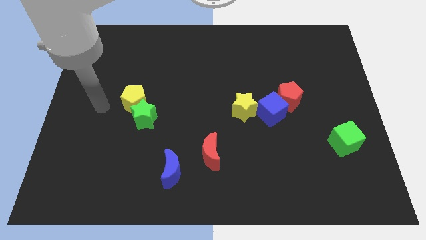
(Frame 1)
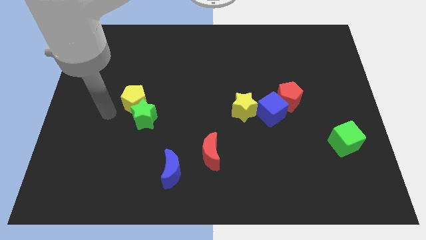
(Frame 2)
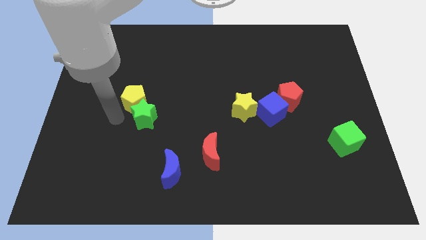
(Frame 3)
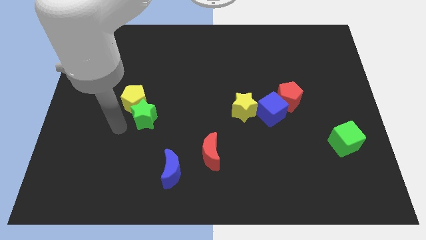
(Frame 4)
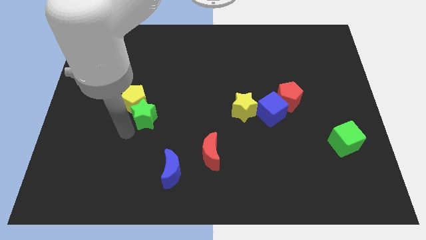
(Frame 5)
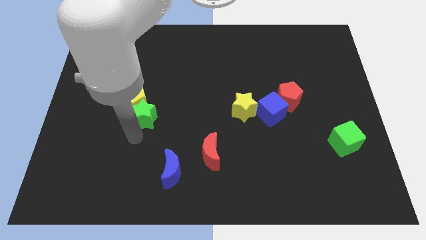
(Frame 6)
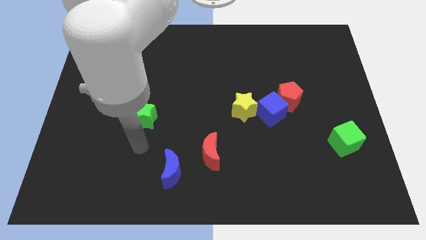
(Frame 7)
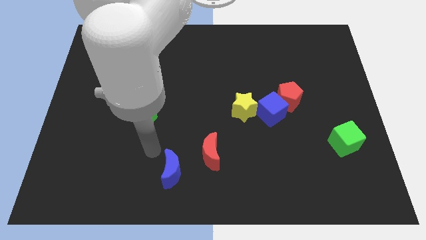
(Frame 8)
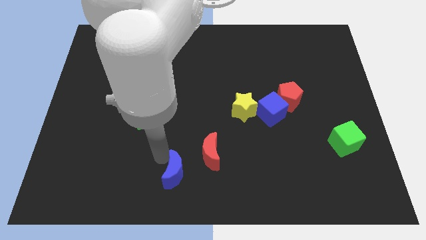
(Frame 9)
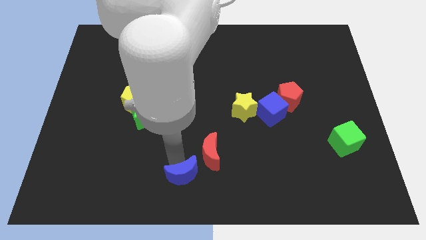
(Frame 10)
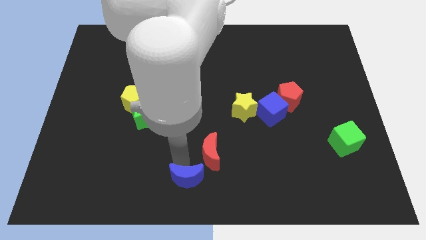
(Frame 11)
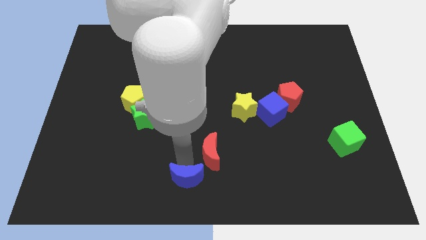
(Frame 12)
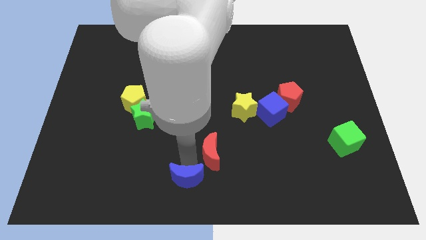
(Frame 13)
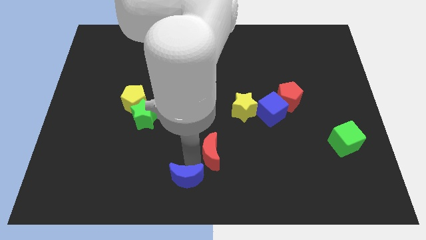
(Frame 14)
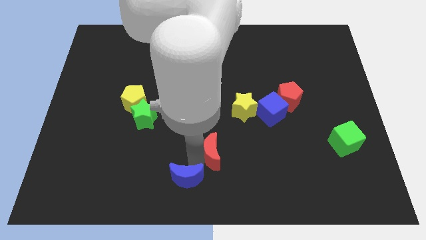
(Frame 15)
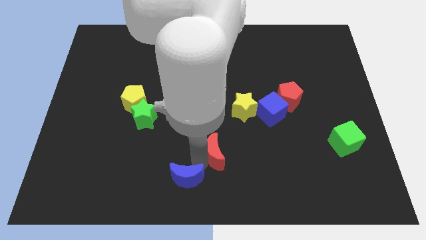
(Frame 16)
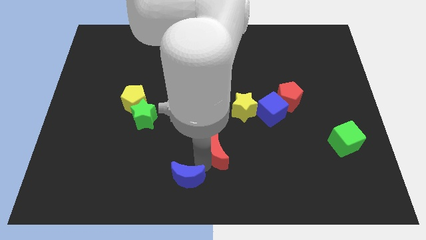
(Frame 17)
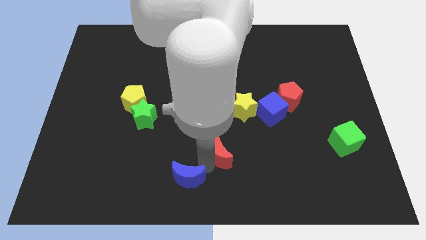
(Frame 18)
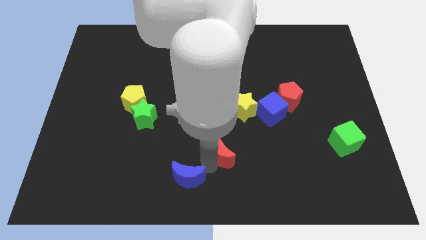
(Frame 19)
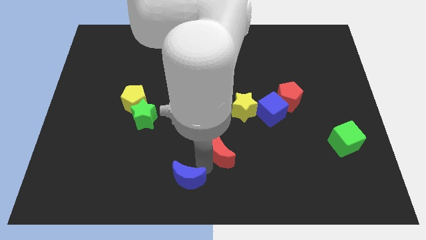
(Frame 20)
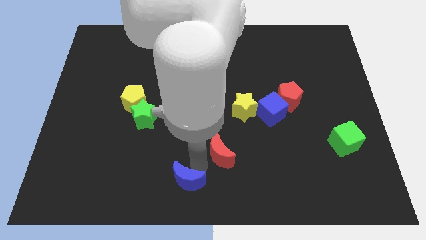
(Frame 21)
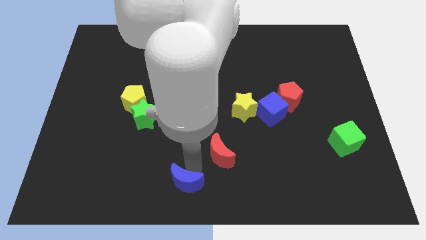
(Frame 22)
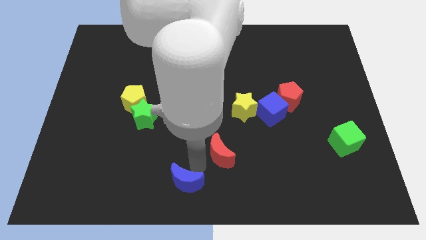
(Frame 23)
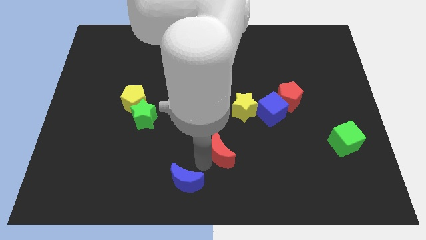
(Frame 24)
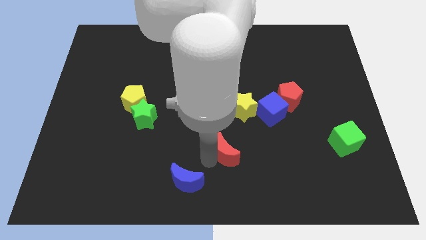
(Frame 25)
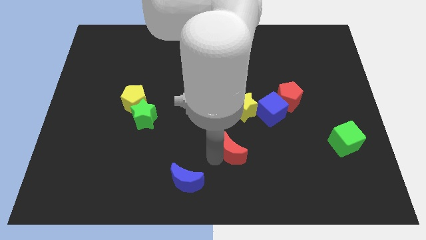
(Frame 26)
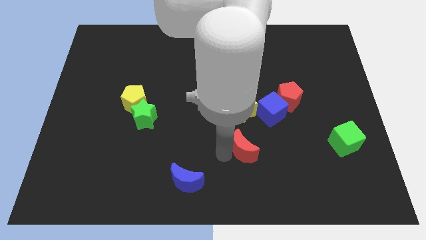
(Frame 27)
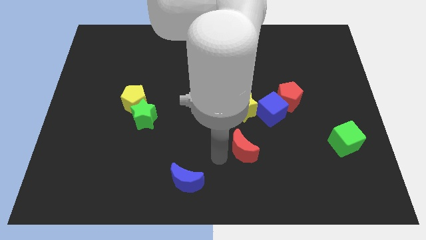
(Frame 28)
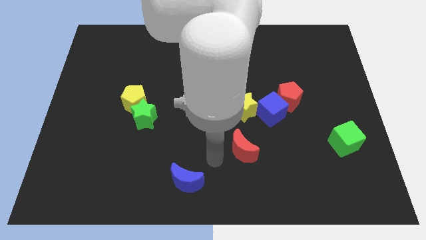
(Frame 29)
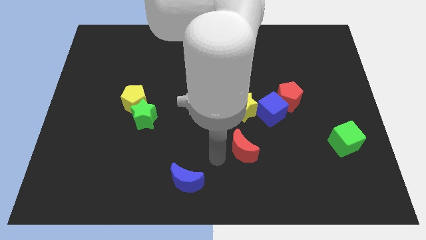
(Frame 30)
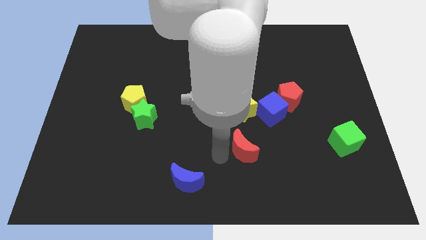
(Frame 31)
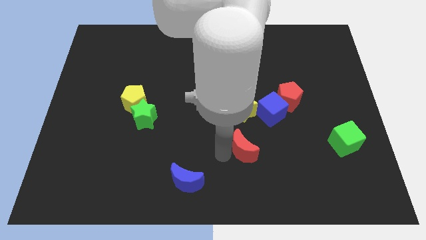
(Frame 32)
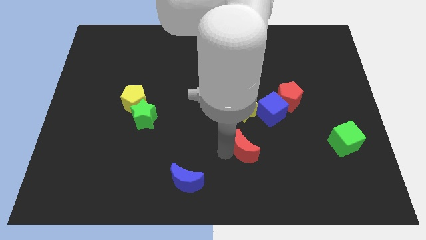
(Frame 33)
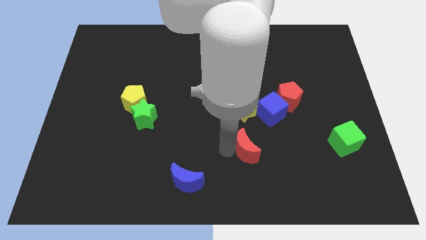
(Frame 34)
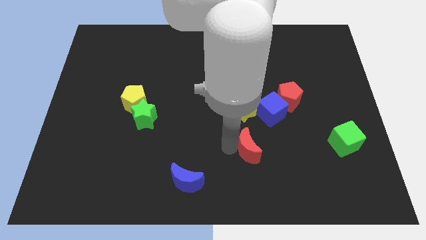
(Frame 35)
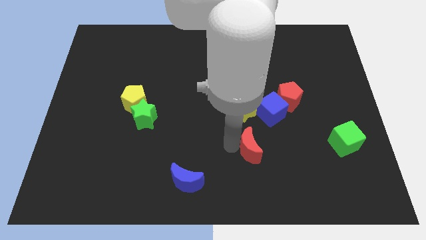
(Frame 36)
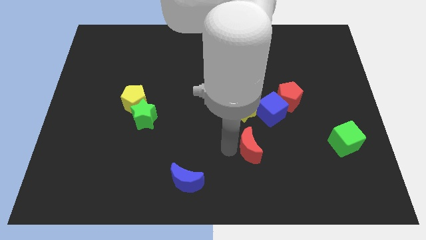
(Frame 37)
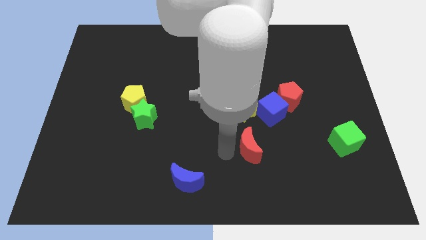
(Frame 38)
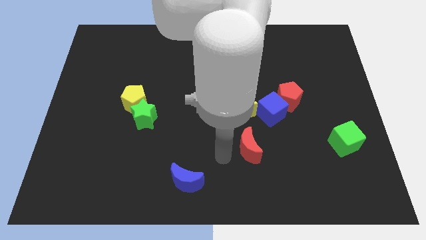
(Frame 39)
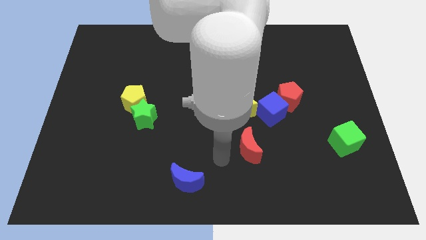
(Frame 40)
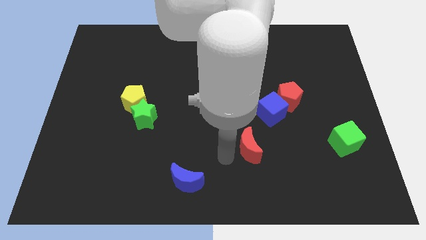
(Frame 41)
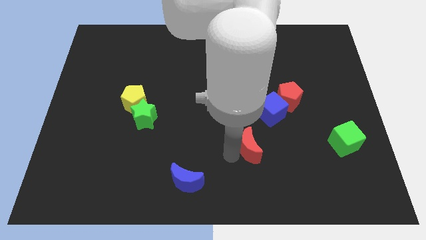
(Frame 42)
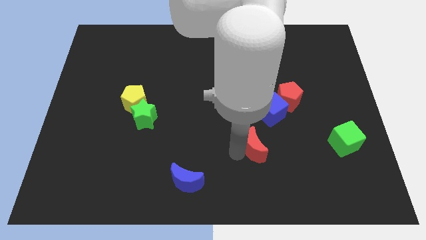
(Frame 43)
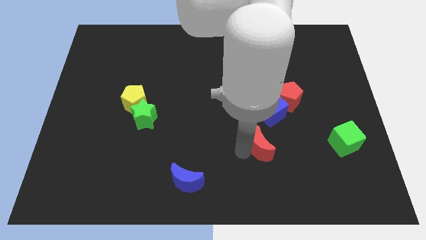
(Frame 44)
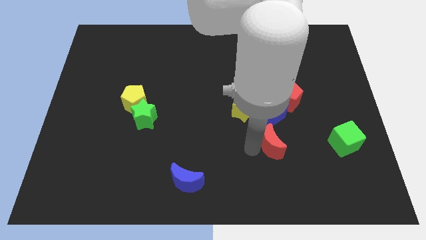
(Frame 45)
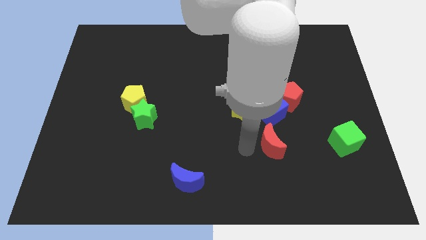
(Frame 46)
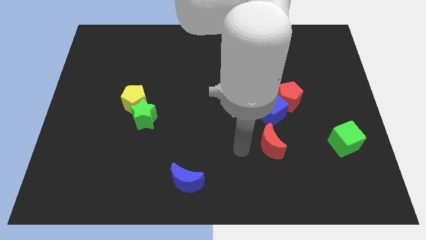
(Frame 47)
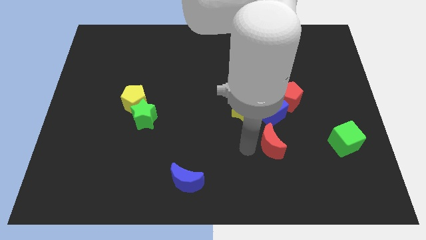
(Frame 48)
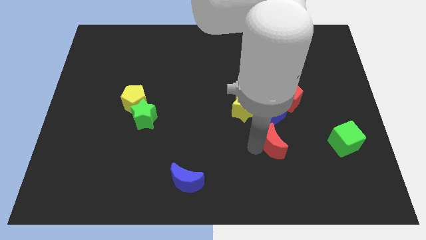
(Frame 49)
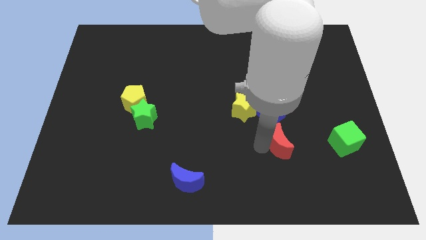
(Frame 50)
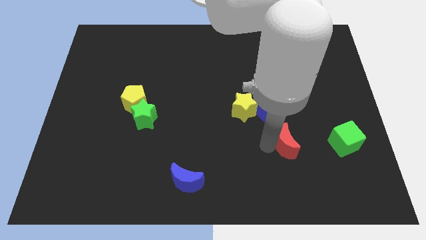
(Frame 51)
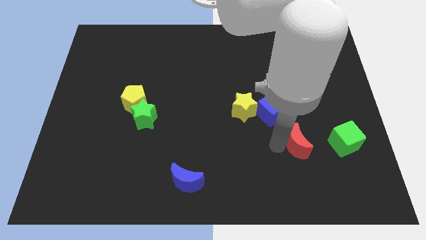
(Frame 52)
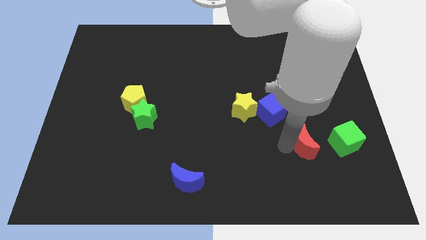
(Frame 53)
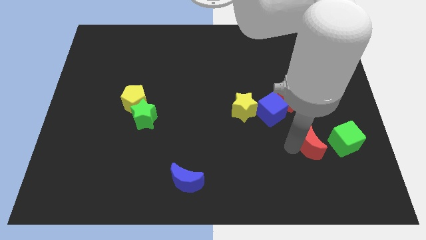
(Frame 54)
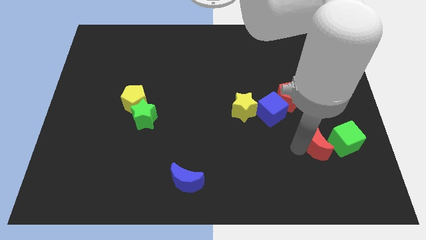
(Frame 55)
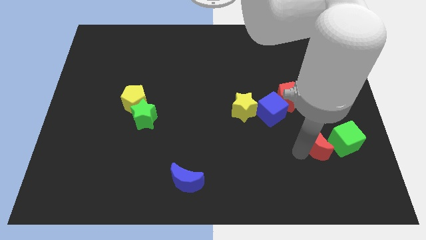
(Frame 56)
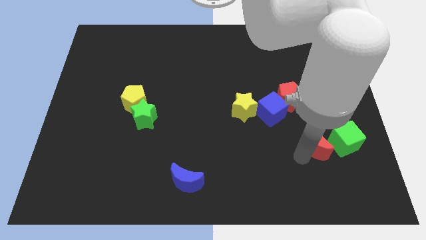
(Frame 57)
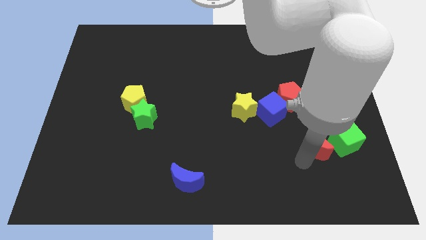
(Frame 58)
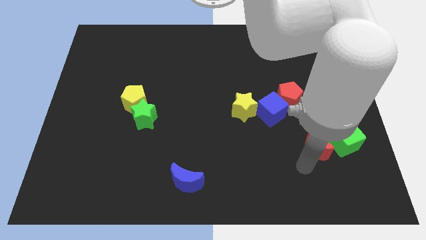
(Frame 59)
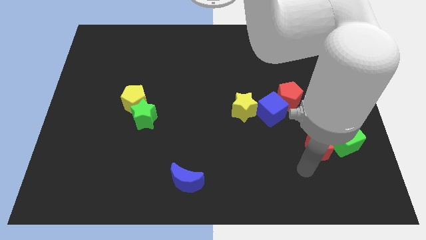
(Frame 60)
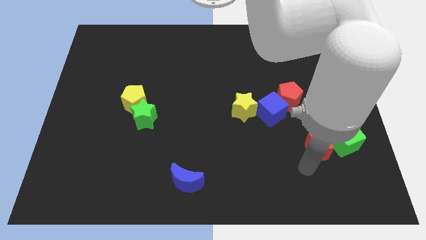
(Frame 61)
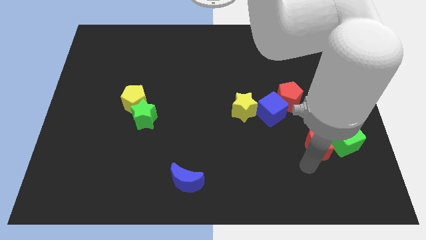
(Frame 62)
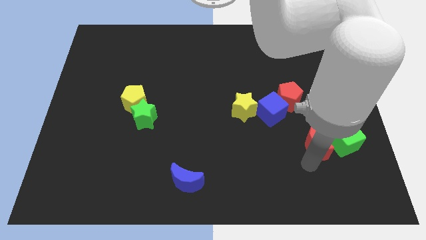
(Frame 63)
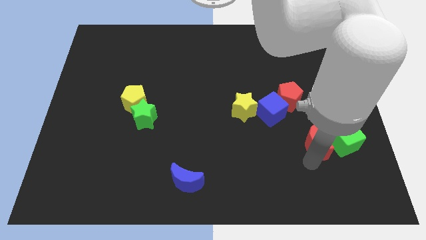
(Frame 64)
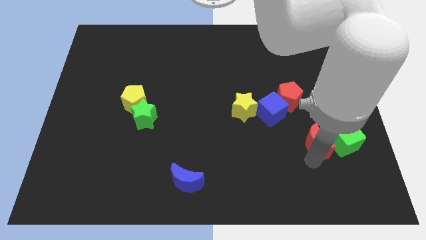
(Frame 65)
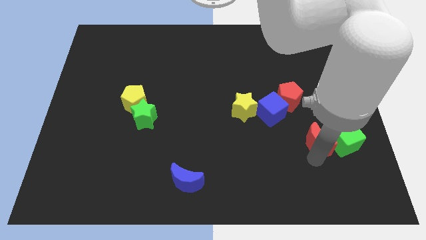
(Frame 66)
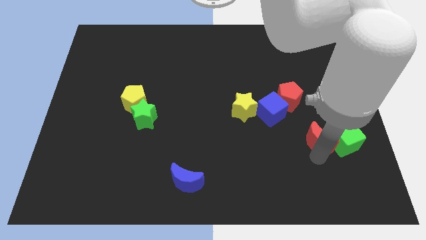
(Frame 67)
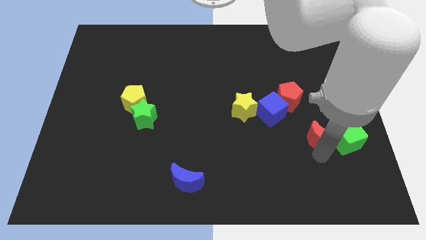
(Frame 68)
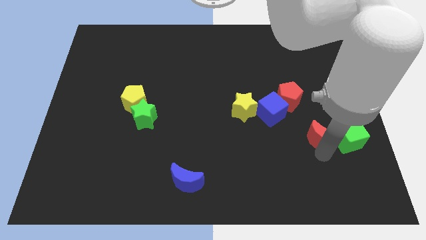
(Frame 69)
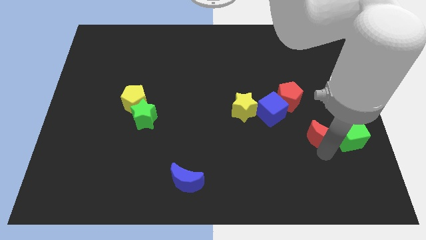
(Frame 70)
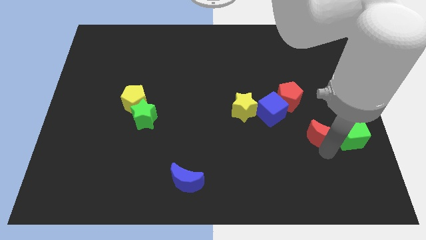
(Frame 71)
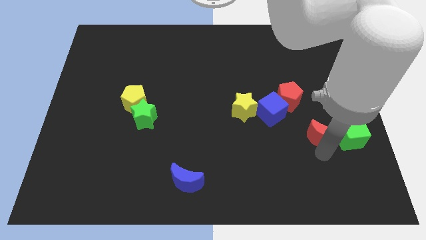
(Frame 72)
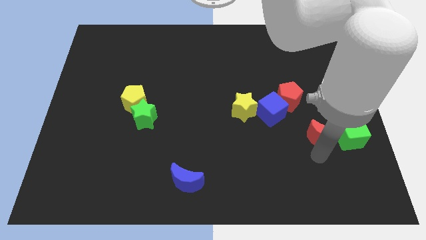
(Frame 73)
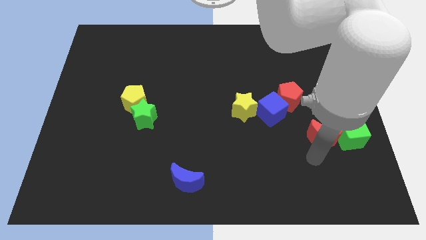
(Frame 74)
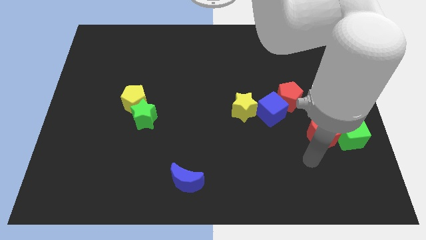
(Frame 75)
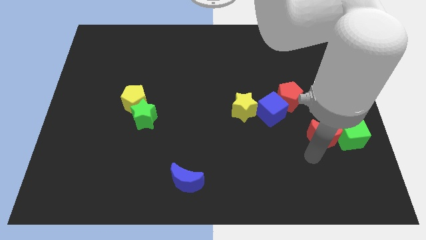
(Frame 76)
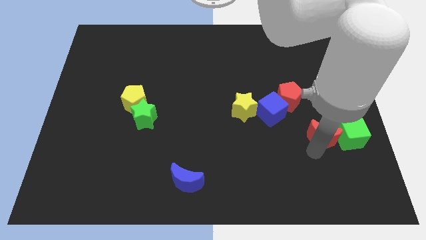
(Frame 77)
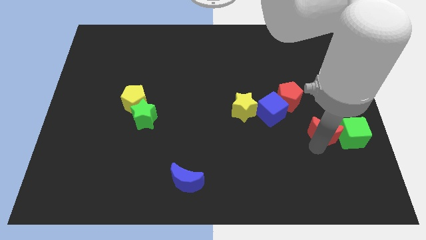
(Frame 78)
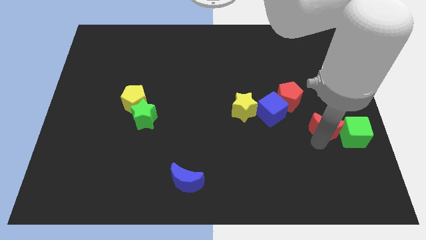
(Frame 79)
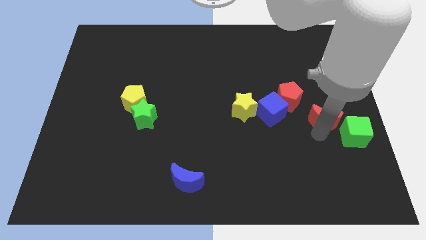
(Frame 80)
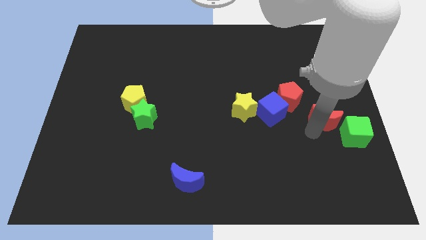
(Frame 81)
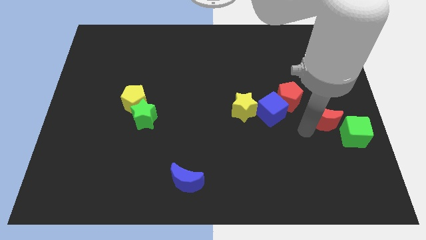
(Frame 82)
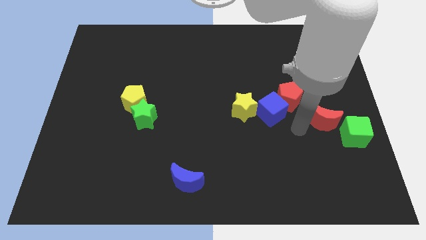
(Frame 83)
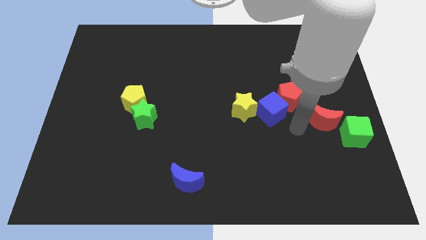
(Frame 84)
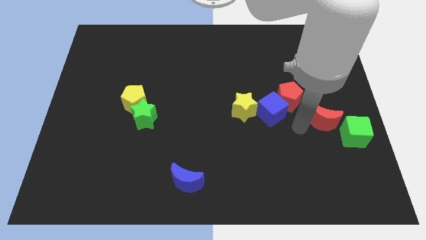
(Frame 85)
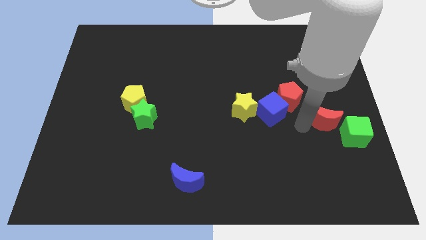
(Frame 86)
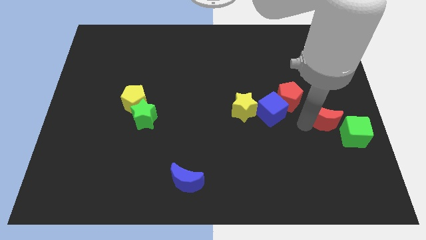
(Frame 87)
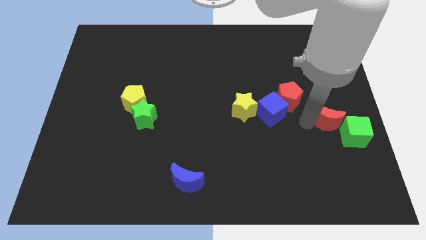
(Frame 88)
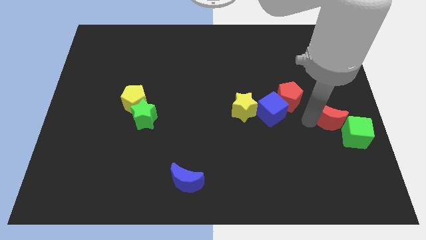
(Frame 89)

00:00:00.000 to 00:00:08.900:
push the red moon to the center right
